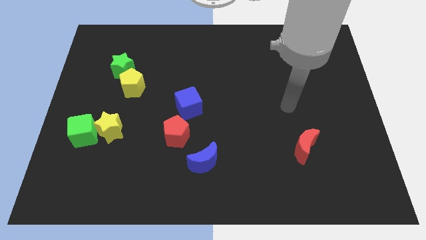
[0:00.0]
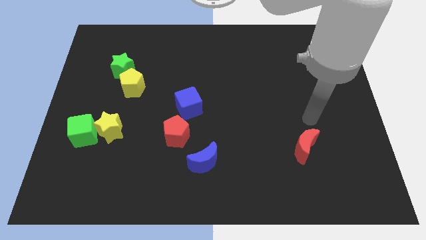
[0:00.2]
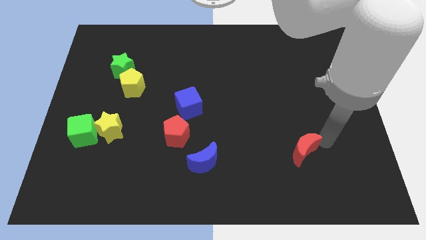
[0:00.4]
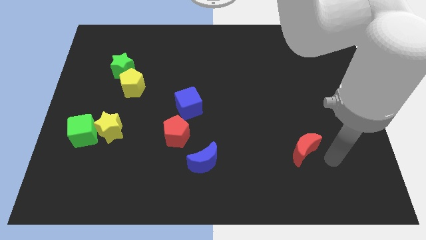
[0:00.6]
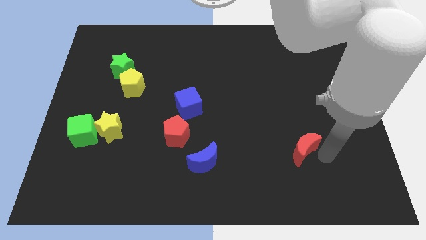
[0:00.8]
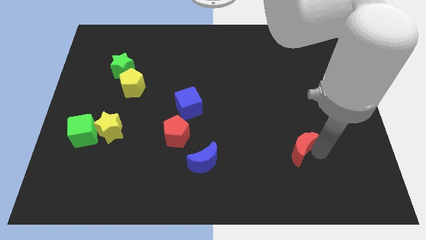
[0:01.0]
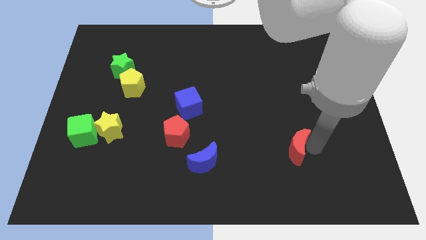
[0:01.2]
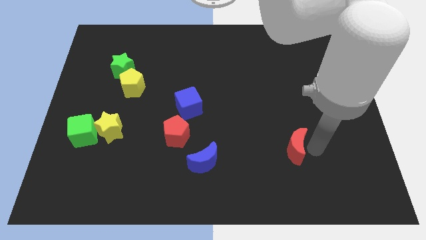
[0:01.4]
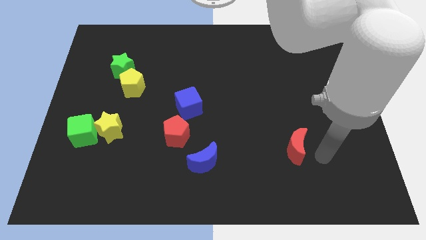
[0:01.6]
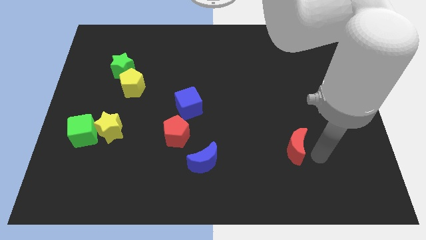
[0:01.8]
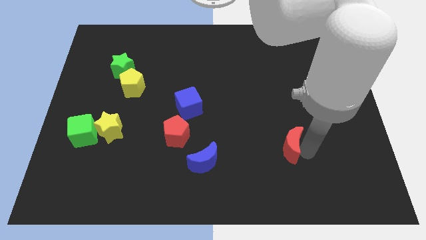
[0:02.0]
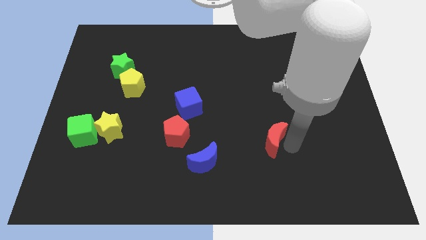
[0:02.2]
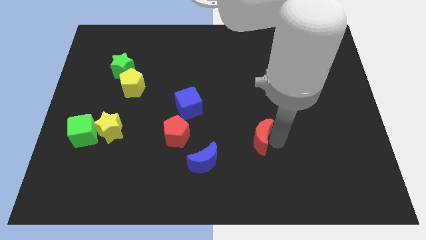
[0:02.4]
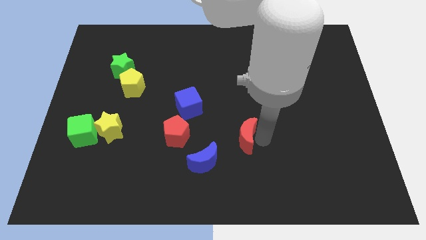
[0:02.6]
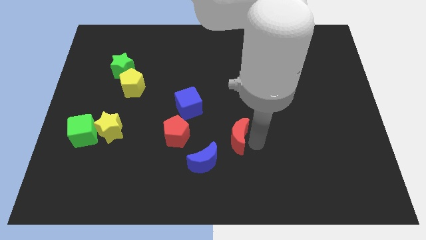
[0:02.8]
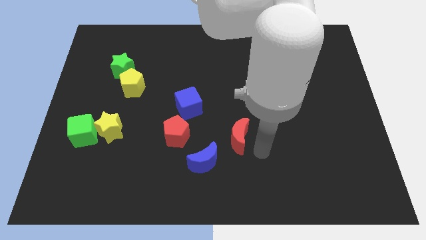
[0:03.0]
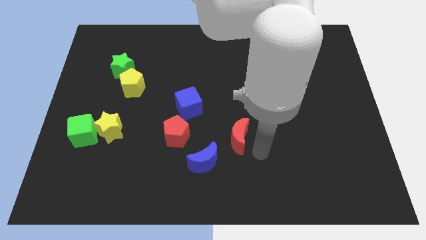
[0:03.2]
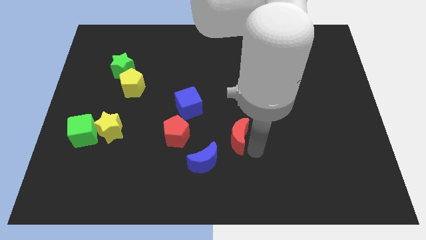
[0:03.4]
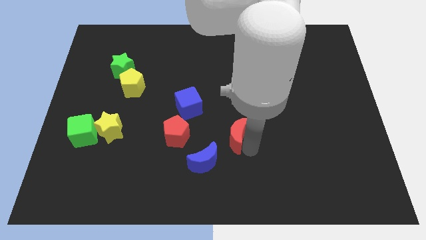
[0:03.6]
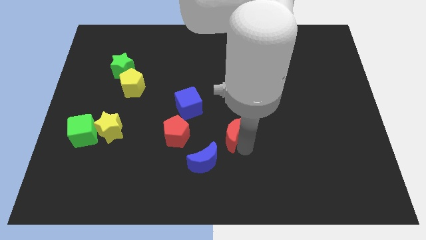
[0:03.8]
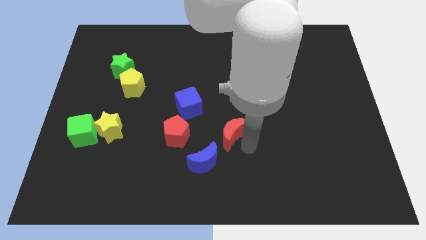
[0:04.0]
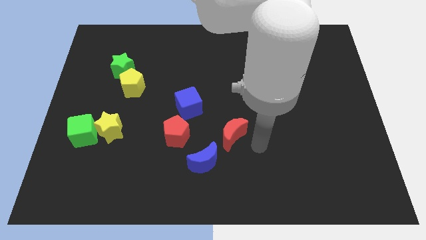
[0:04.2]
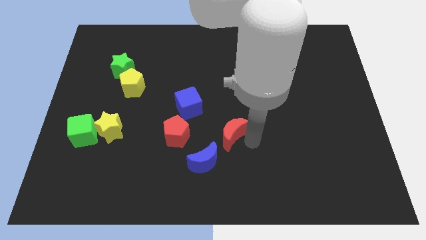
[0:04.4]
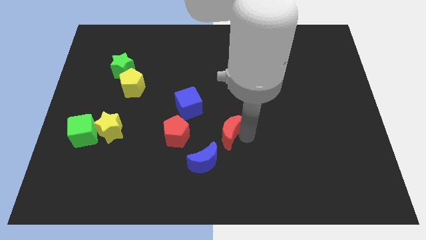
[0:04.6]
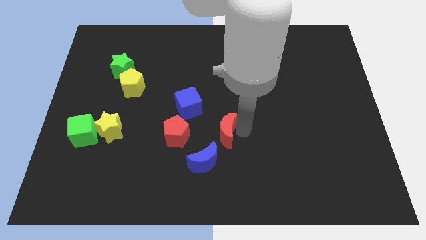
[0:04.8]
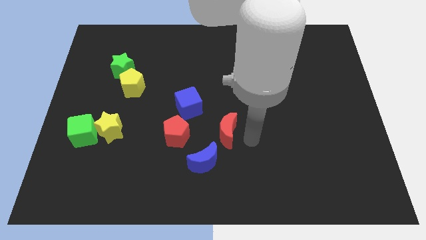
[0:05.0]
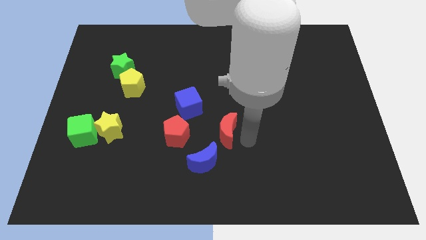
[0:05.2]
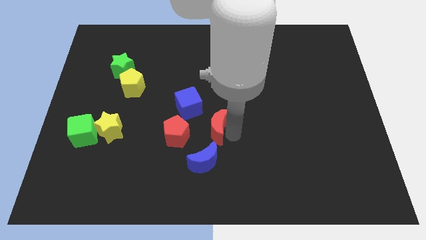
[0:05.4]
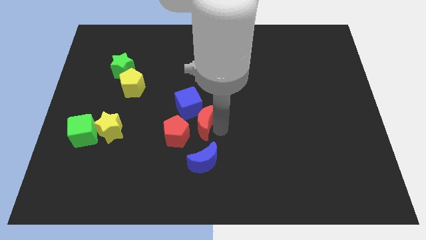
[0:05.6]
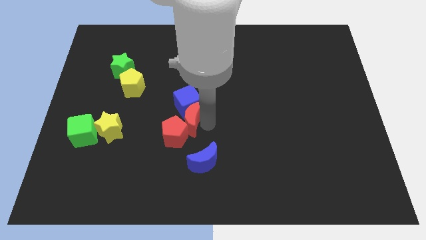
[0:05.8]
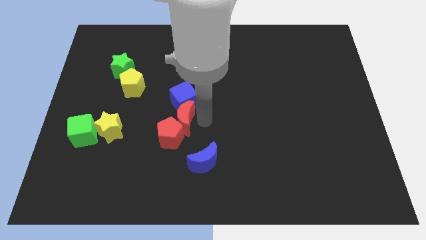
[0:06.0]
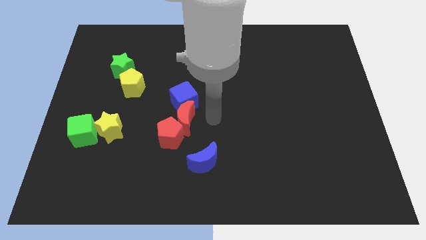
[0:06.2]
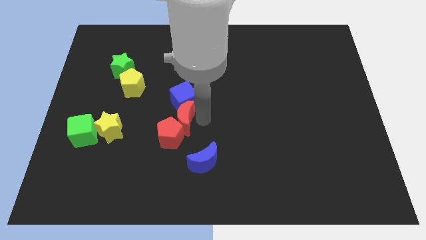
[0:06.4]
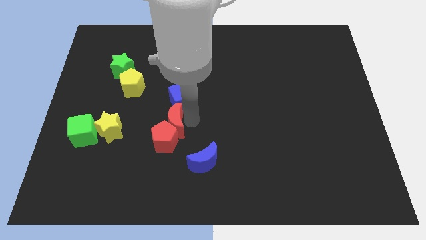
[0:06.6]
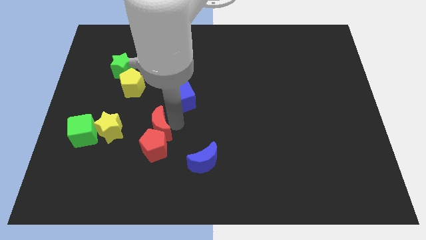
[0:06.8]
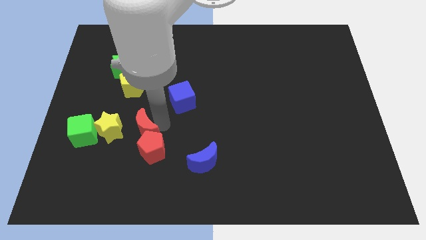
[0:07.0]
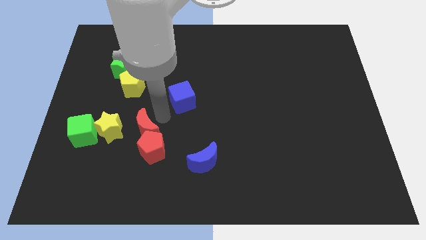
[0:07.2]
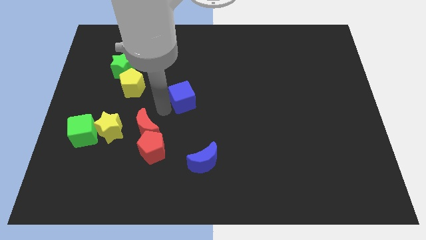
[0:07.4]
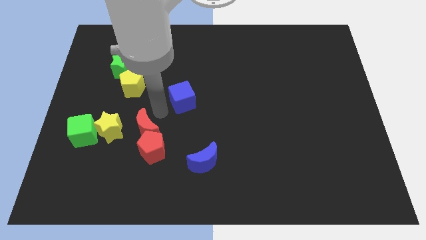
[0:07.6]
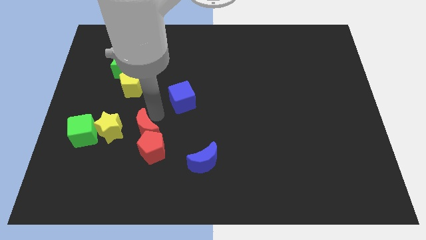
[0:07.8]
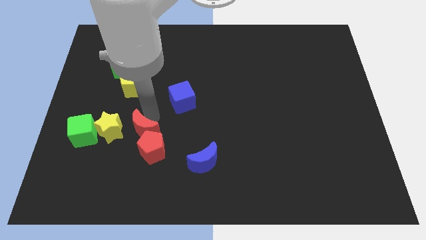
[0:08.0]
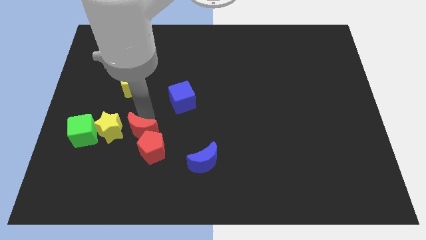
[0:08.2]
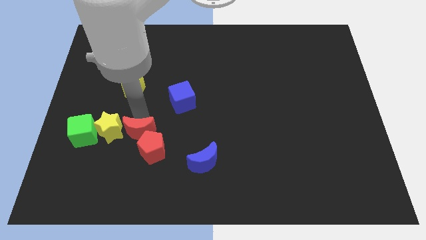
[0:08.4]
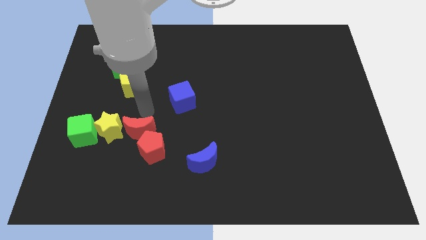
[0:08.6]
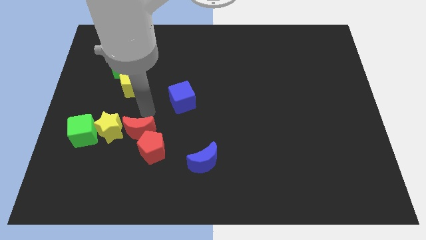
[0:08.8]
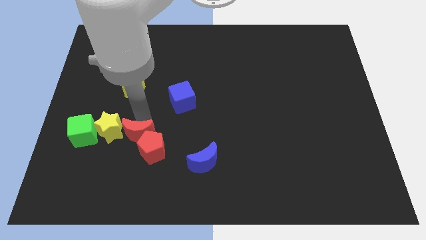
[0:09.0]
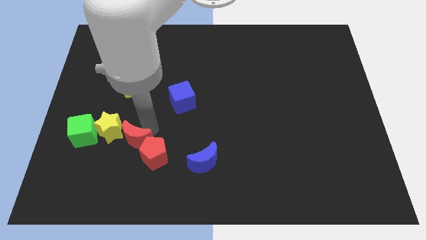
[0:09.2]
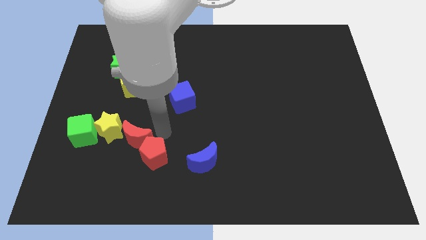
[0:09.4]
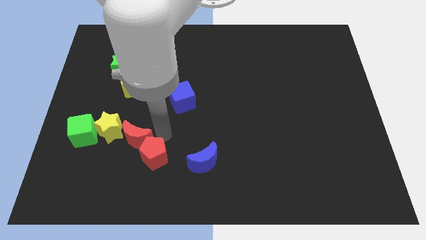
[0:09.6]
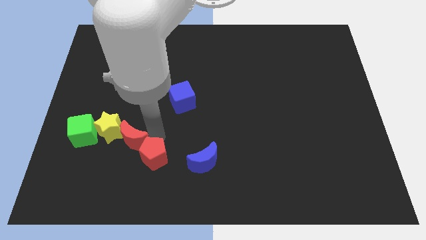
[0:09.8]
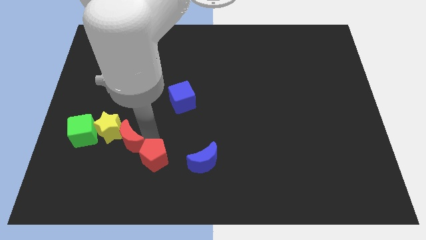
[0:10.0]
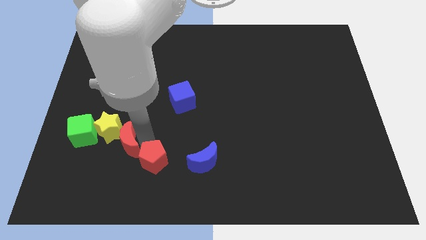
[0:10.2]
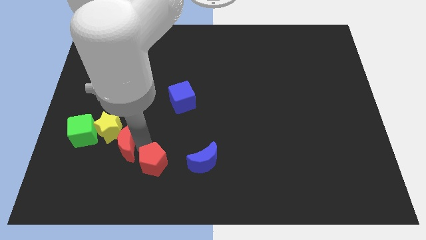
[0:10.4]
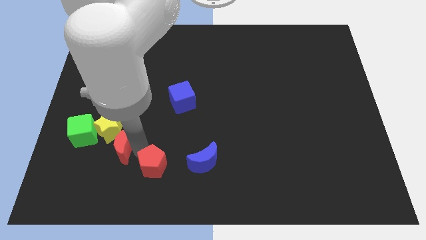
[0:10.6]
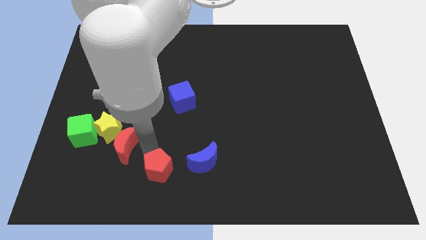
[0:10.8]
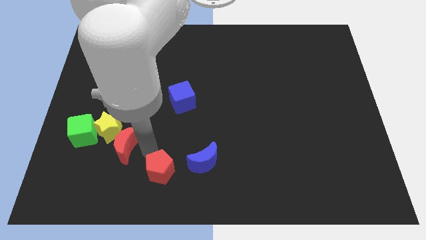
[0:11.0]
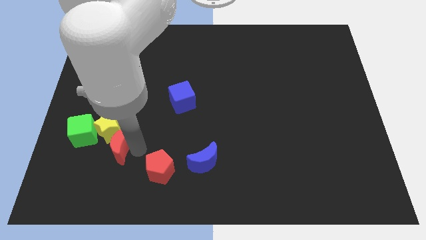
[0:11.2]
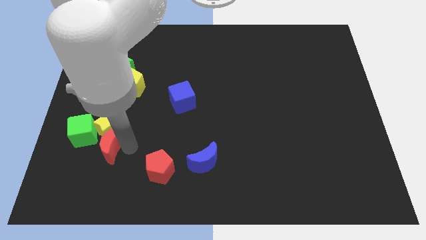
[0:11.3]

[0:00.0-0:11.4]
push the red moon diagonally down and to the left of the yellow star

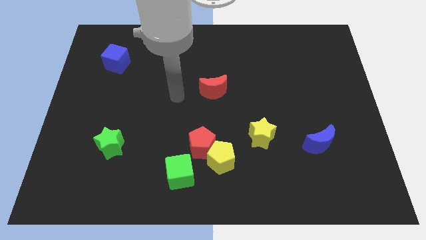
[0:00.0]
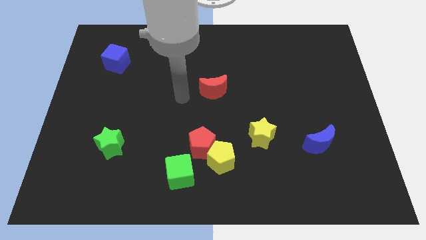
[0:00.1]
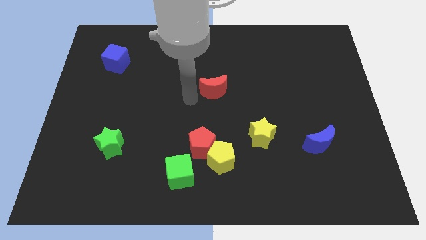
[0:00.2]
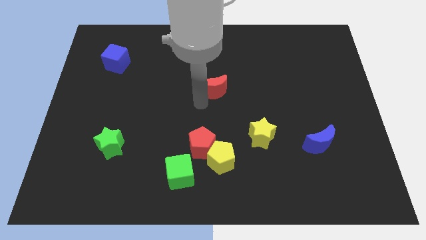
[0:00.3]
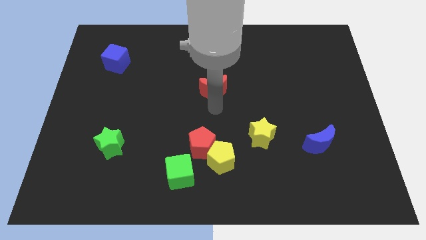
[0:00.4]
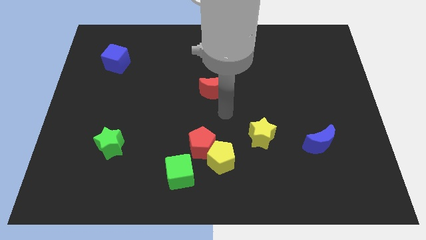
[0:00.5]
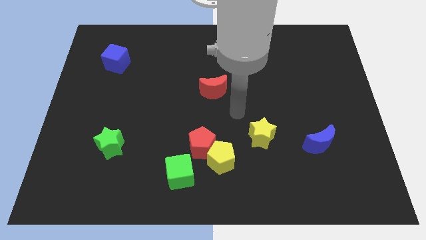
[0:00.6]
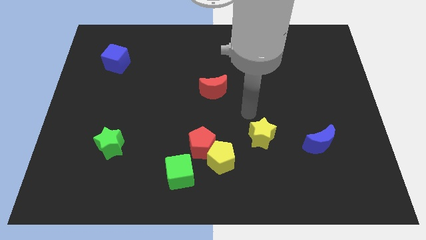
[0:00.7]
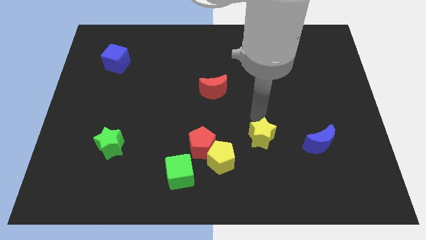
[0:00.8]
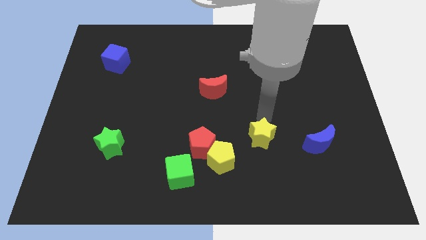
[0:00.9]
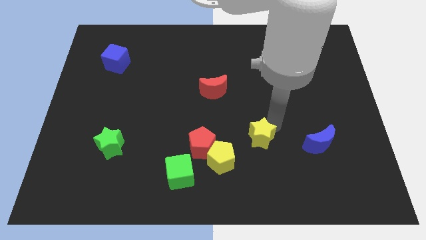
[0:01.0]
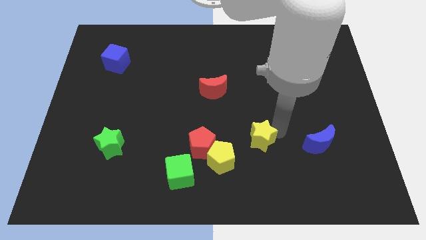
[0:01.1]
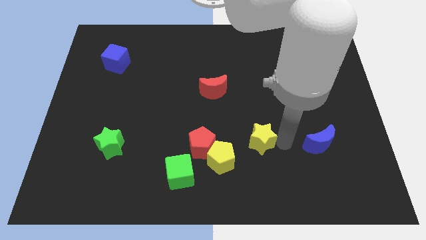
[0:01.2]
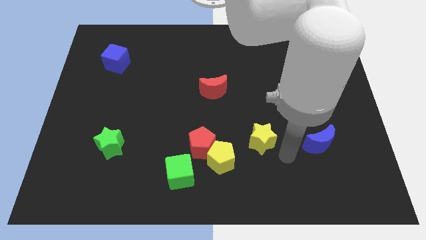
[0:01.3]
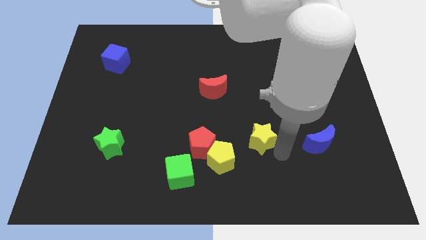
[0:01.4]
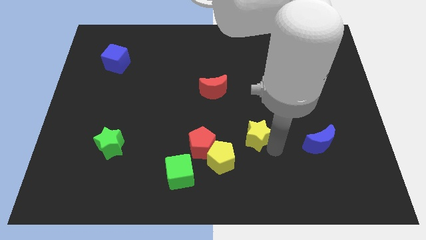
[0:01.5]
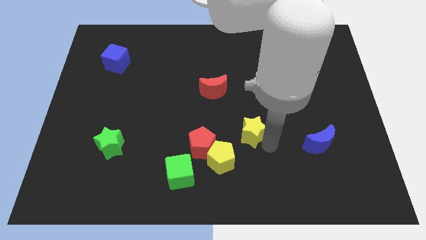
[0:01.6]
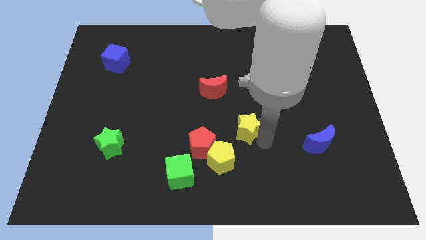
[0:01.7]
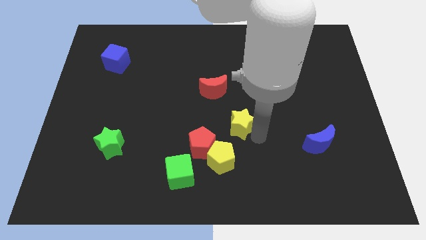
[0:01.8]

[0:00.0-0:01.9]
put the yellow star to the top of the yellow pentagon
